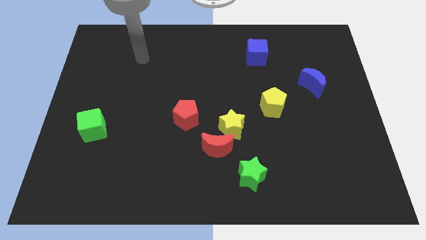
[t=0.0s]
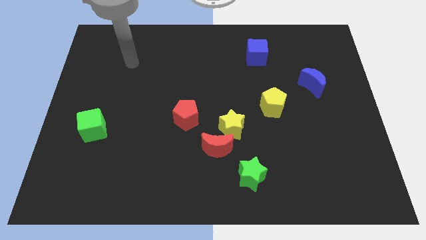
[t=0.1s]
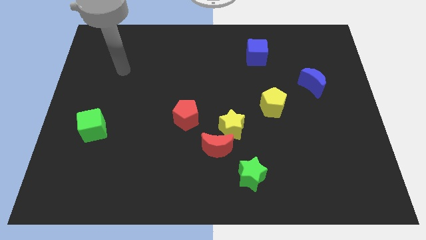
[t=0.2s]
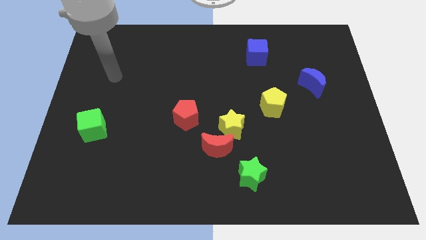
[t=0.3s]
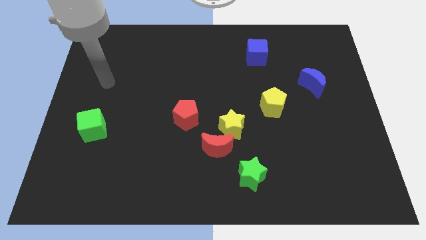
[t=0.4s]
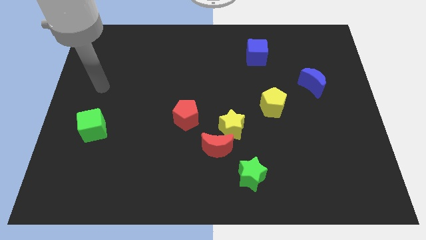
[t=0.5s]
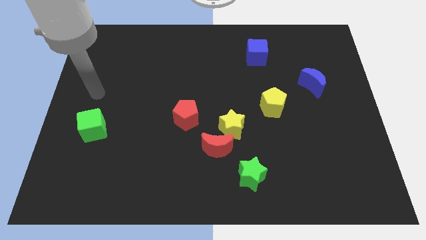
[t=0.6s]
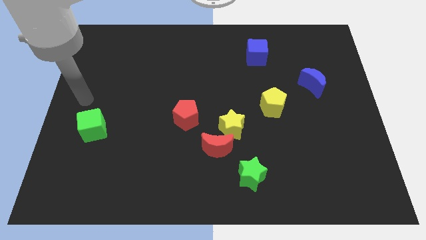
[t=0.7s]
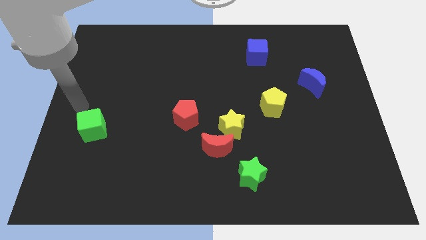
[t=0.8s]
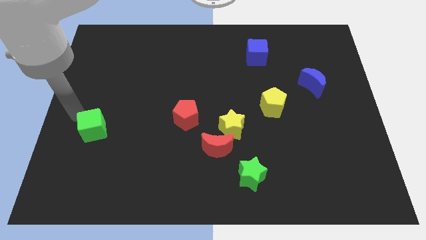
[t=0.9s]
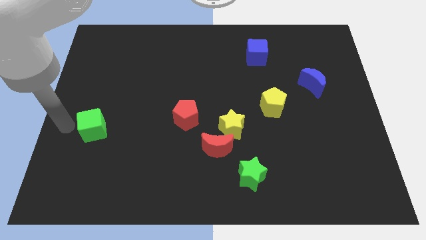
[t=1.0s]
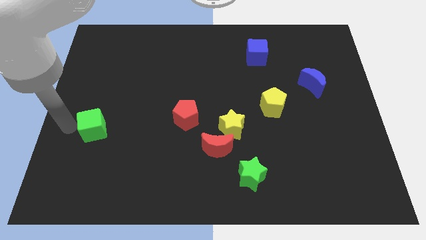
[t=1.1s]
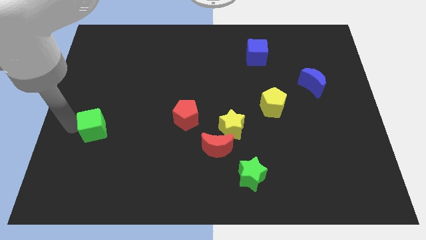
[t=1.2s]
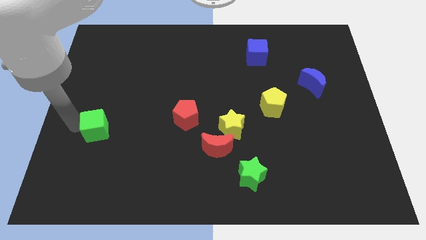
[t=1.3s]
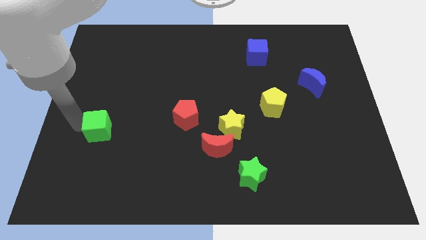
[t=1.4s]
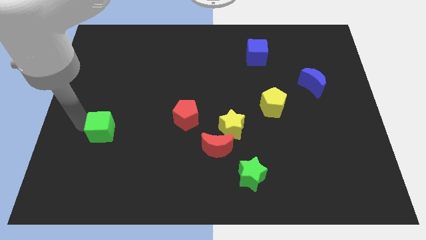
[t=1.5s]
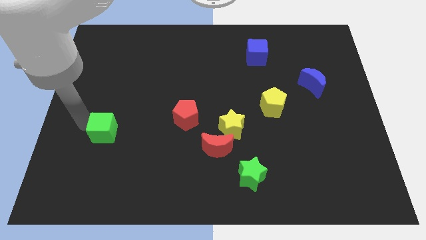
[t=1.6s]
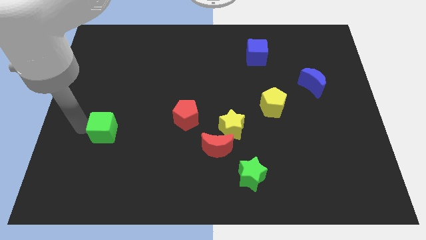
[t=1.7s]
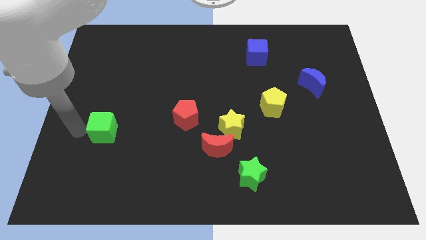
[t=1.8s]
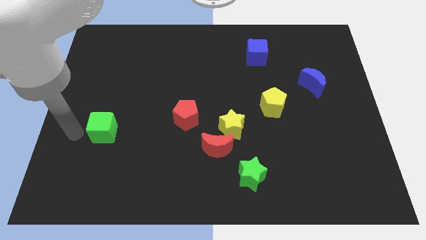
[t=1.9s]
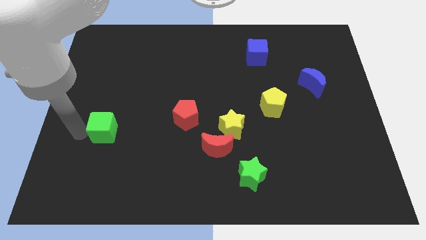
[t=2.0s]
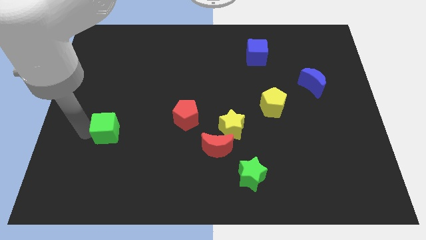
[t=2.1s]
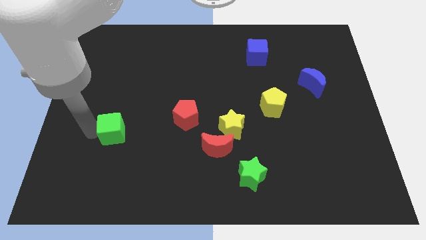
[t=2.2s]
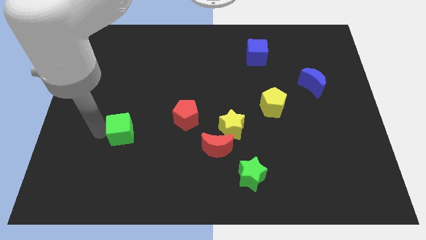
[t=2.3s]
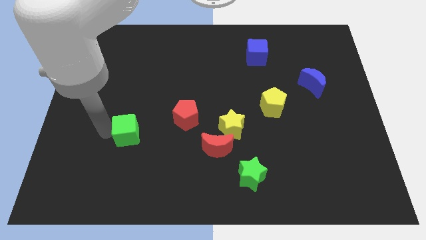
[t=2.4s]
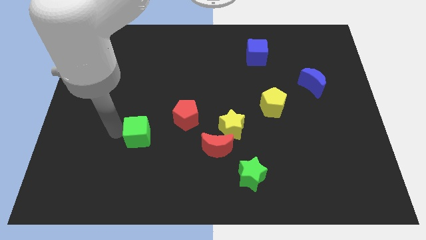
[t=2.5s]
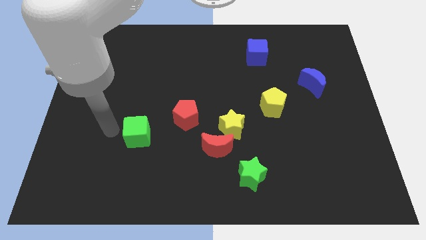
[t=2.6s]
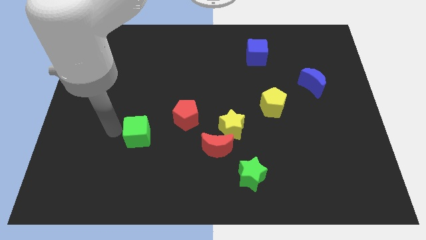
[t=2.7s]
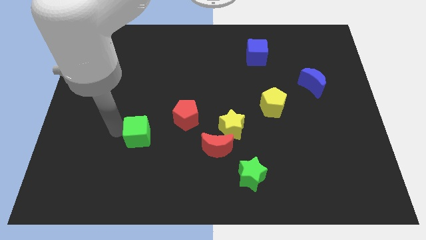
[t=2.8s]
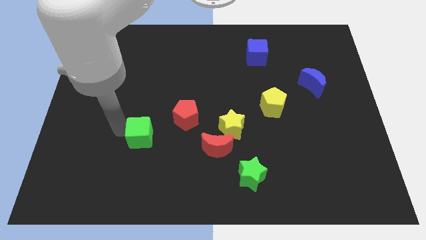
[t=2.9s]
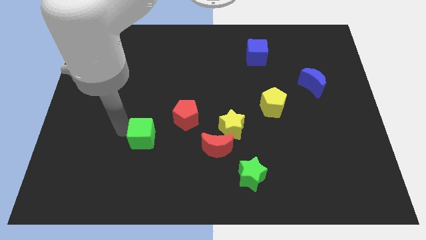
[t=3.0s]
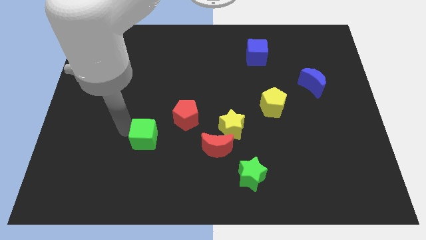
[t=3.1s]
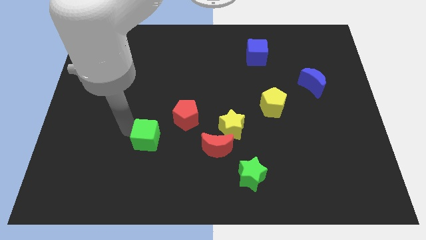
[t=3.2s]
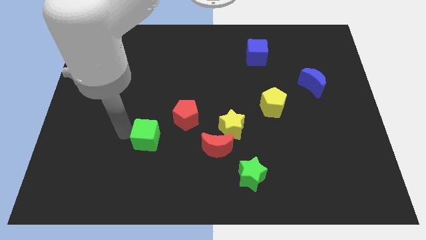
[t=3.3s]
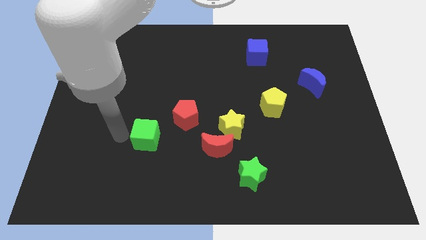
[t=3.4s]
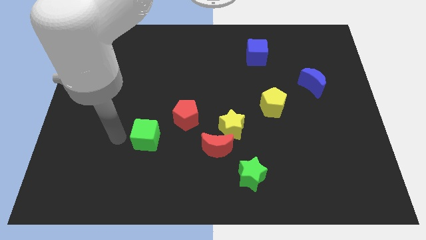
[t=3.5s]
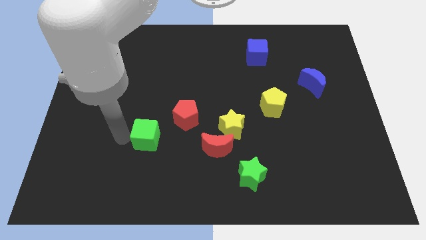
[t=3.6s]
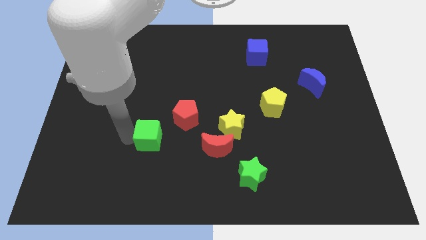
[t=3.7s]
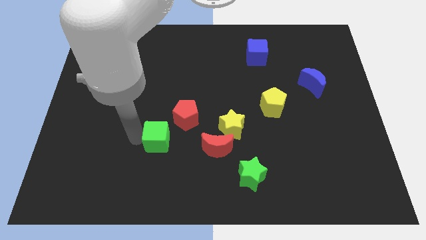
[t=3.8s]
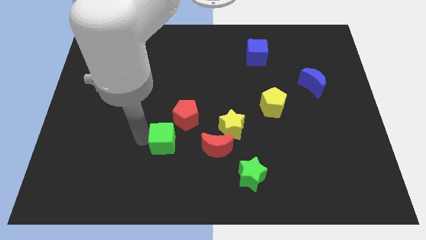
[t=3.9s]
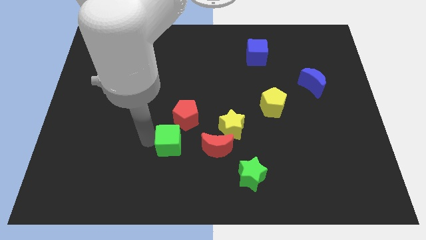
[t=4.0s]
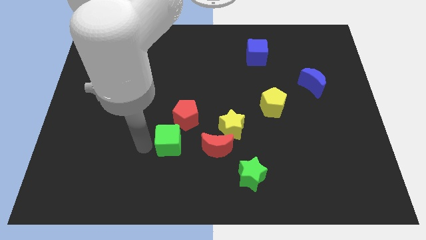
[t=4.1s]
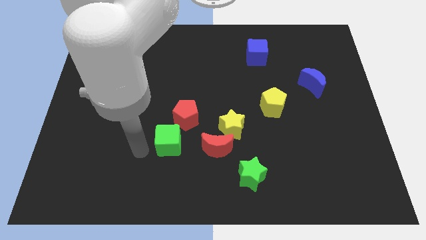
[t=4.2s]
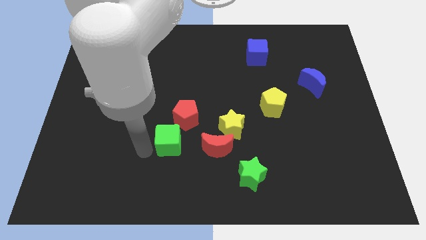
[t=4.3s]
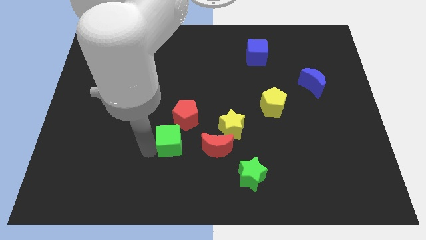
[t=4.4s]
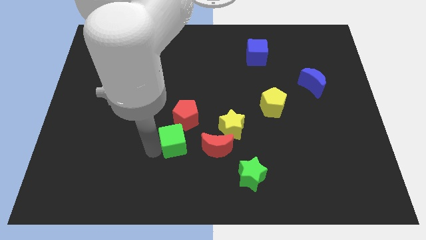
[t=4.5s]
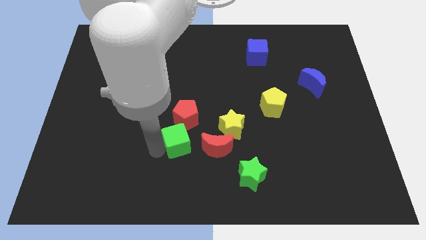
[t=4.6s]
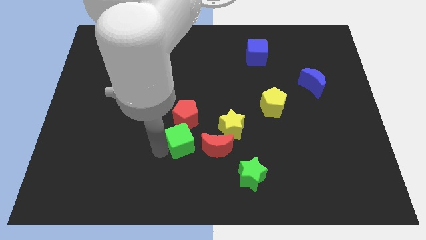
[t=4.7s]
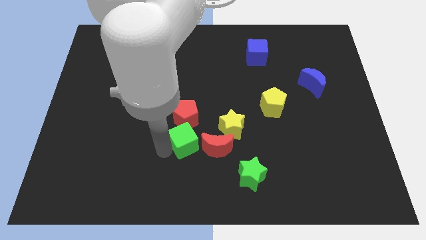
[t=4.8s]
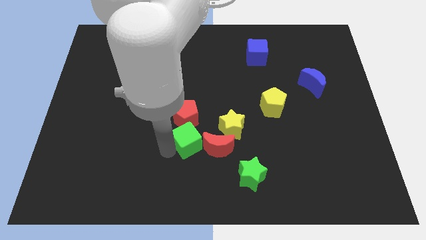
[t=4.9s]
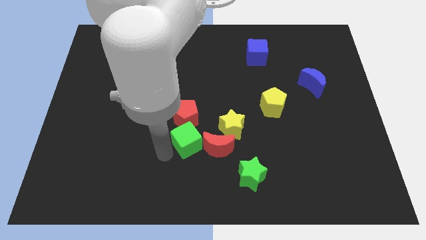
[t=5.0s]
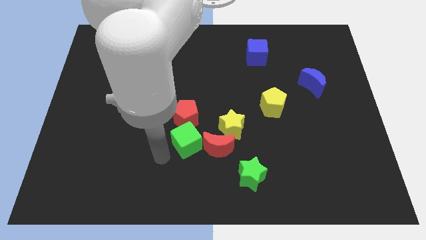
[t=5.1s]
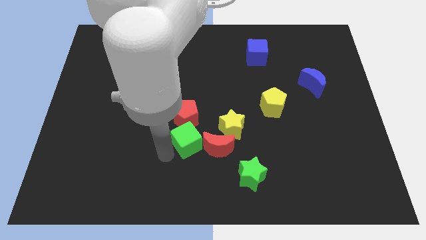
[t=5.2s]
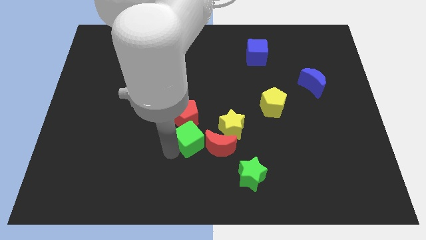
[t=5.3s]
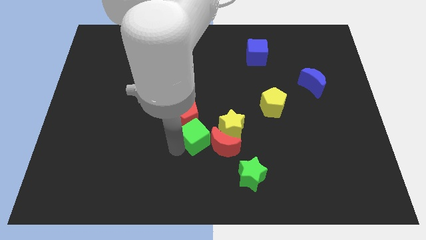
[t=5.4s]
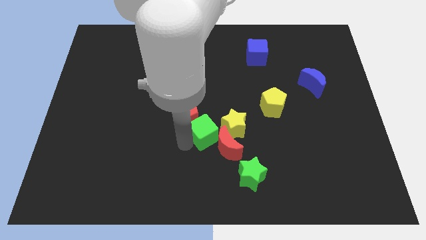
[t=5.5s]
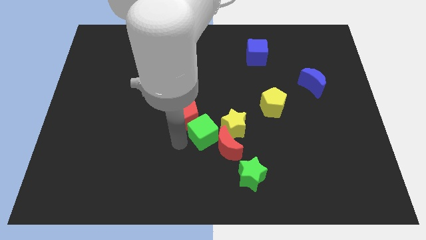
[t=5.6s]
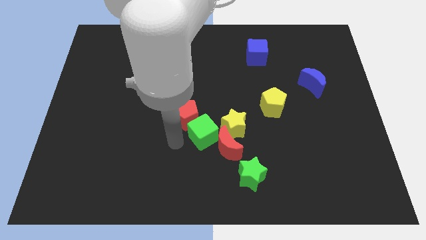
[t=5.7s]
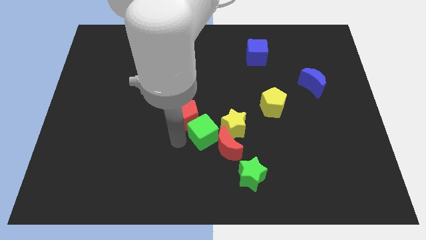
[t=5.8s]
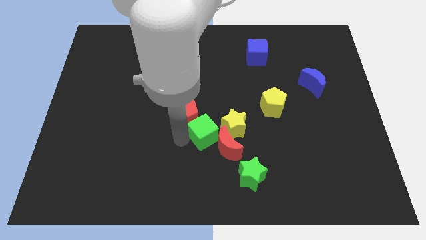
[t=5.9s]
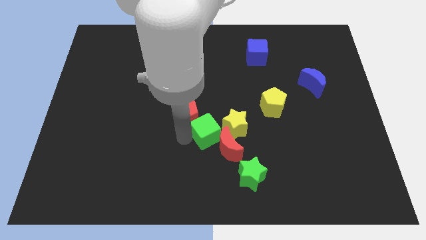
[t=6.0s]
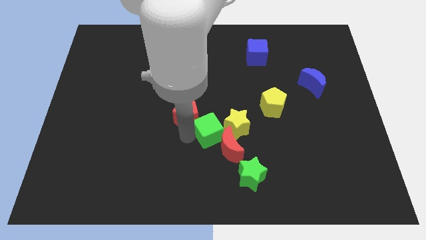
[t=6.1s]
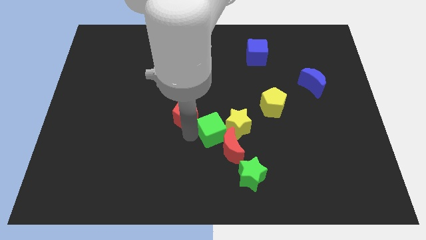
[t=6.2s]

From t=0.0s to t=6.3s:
slide the green cube close to the yellow star

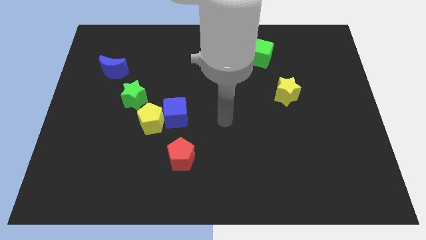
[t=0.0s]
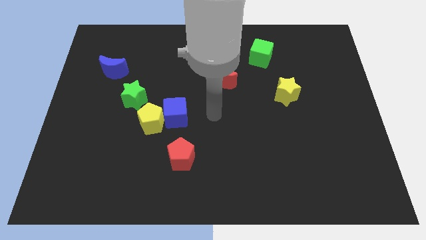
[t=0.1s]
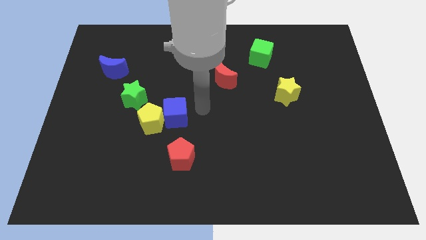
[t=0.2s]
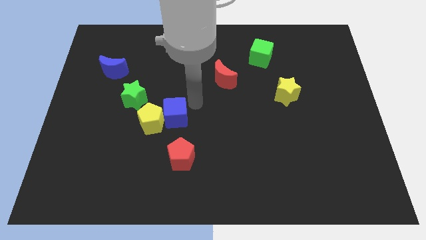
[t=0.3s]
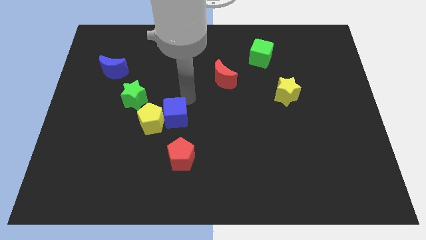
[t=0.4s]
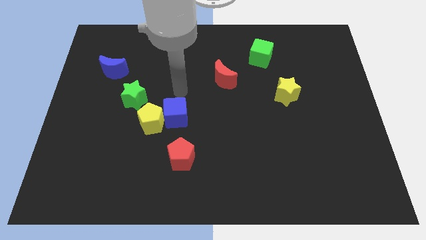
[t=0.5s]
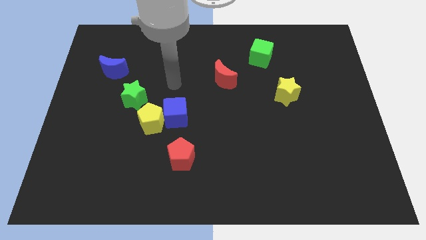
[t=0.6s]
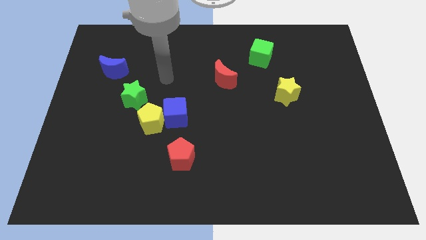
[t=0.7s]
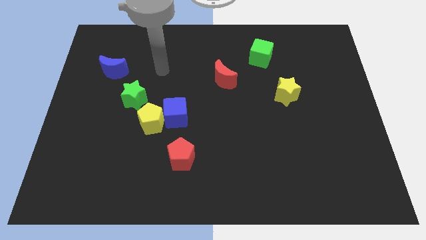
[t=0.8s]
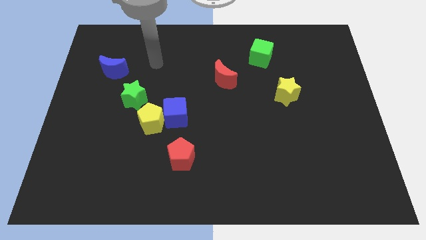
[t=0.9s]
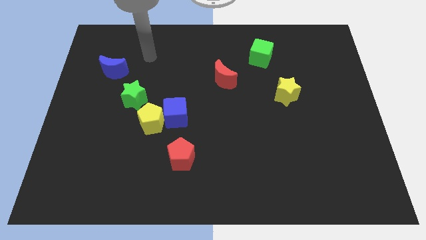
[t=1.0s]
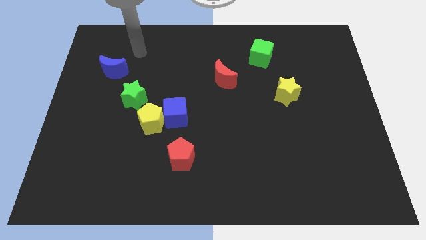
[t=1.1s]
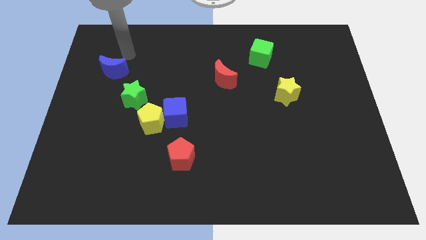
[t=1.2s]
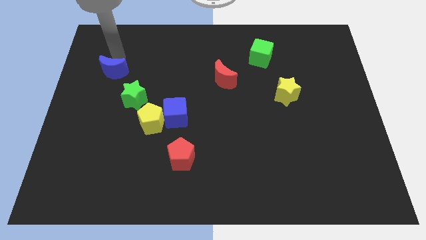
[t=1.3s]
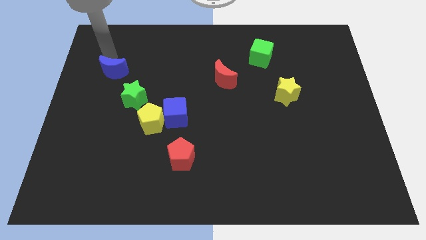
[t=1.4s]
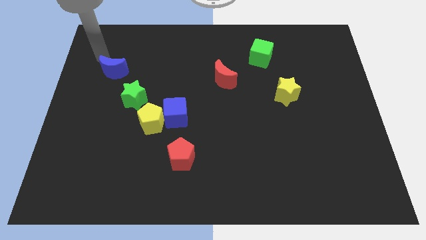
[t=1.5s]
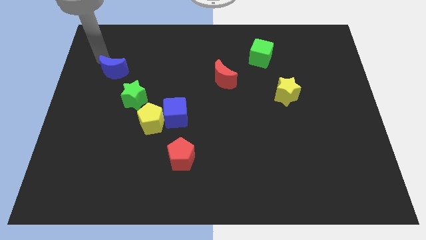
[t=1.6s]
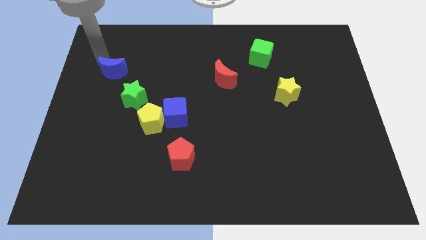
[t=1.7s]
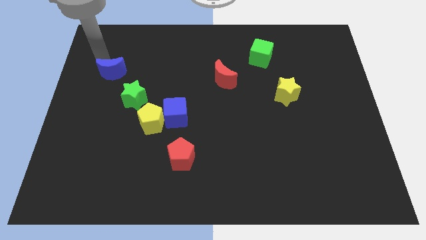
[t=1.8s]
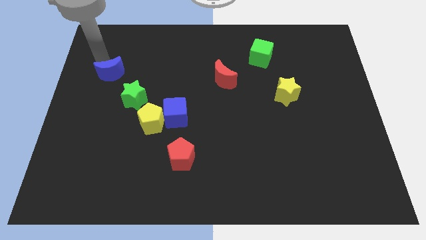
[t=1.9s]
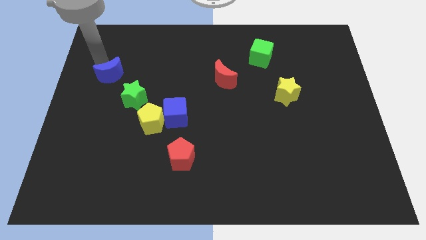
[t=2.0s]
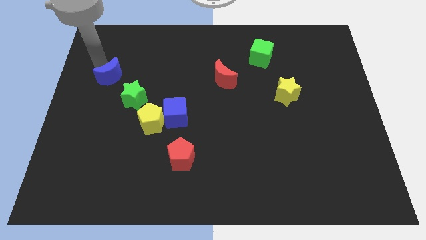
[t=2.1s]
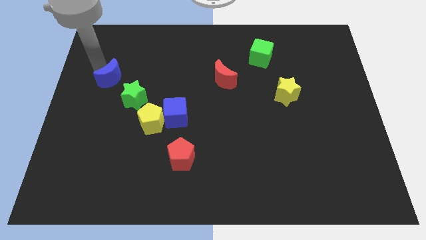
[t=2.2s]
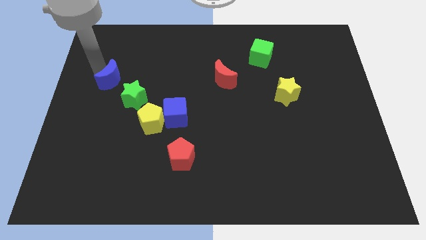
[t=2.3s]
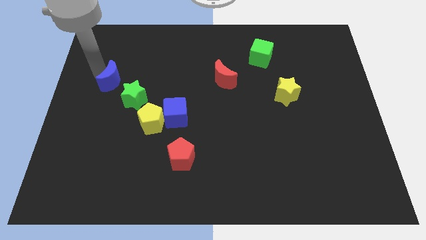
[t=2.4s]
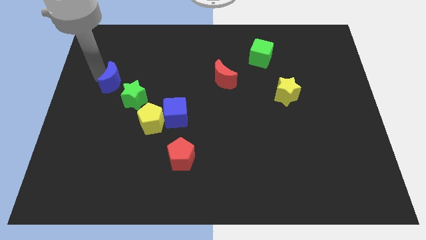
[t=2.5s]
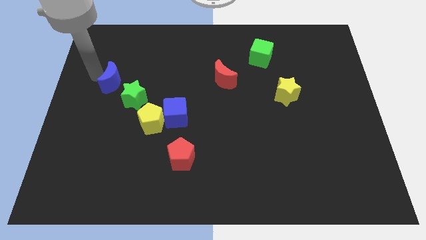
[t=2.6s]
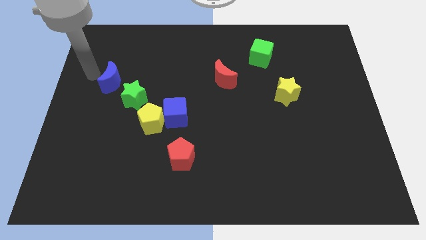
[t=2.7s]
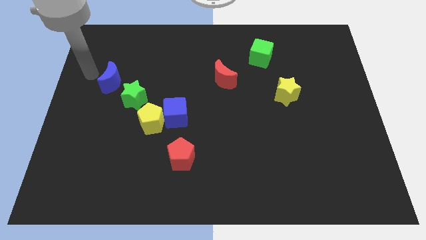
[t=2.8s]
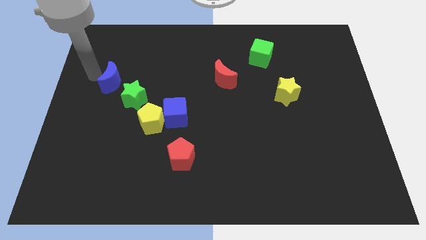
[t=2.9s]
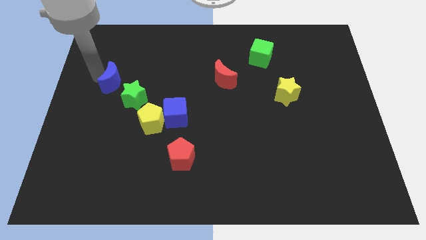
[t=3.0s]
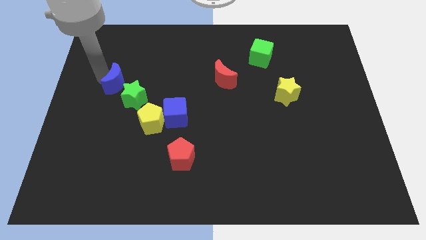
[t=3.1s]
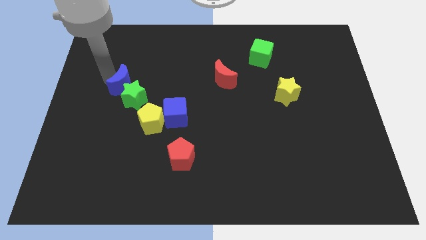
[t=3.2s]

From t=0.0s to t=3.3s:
put the blue moon next to the green star
